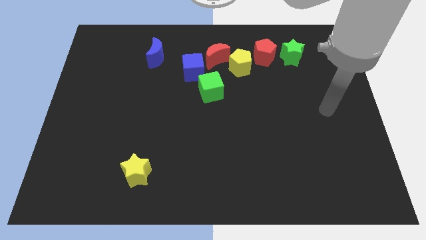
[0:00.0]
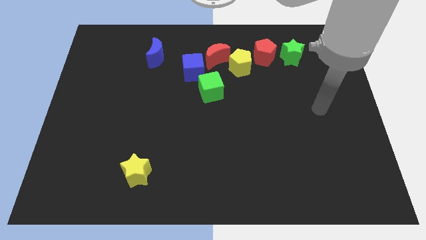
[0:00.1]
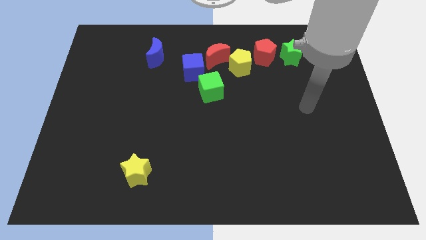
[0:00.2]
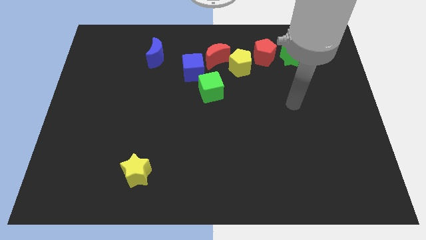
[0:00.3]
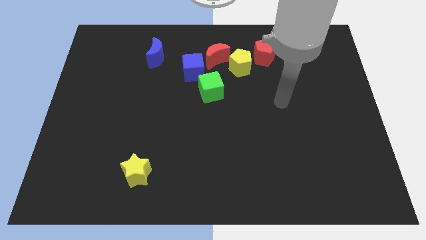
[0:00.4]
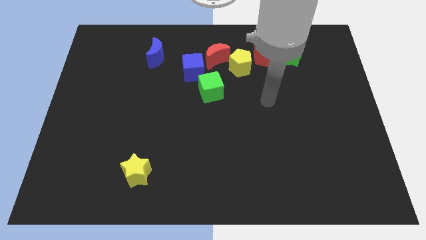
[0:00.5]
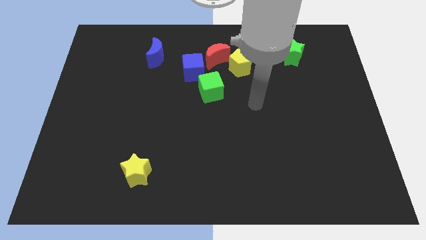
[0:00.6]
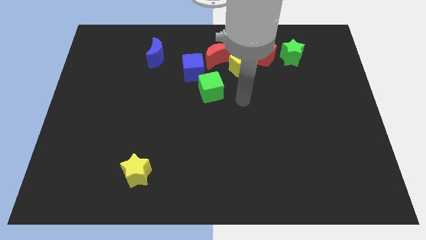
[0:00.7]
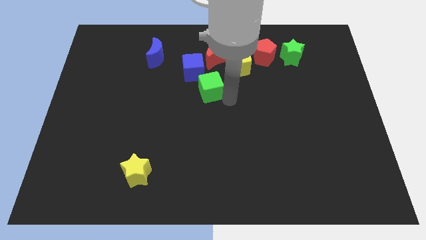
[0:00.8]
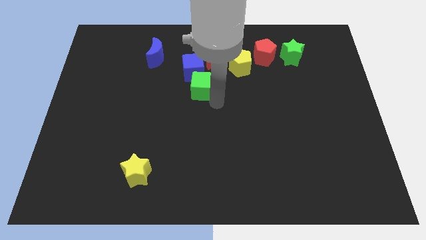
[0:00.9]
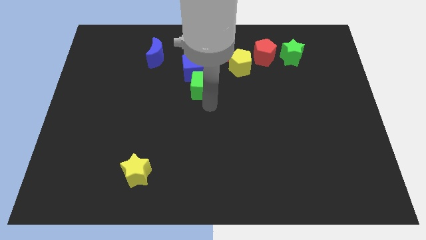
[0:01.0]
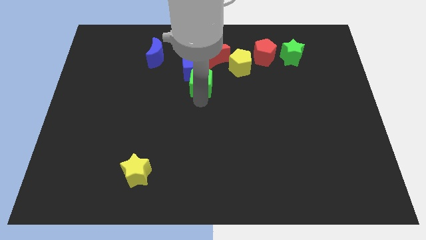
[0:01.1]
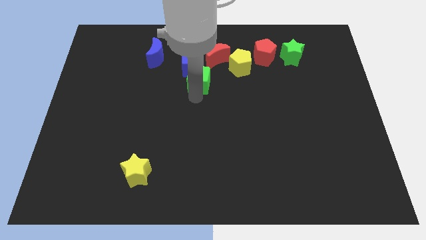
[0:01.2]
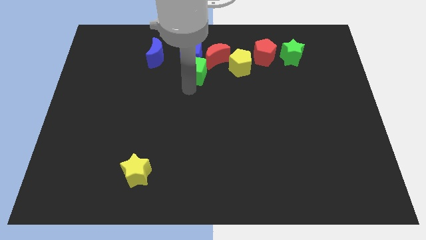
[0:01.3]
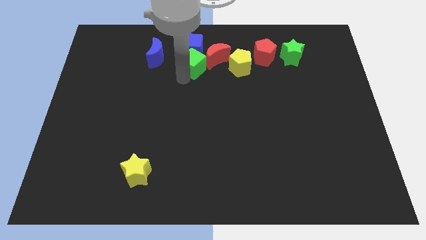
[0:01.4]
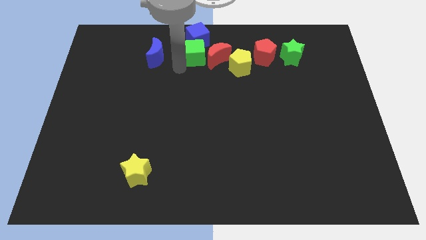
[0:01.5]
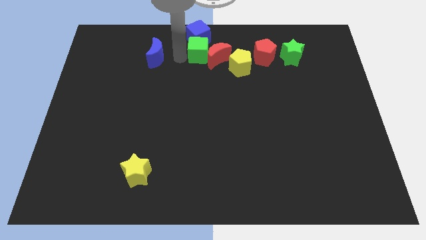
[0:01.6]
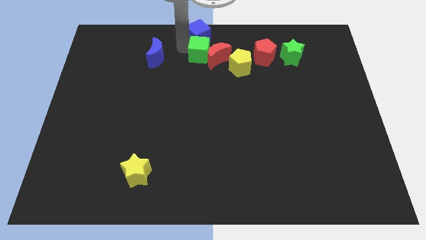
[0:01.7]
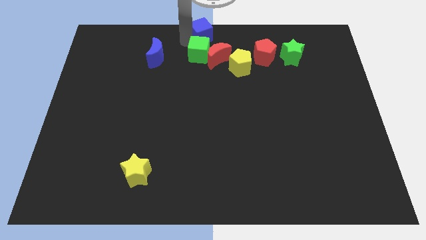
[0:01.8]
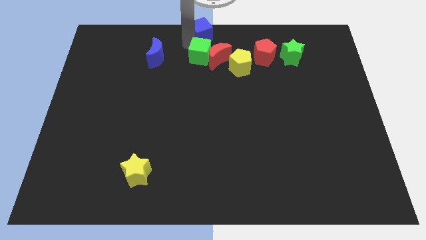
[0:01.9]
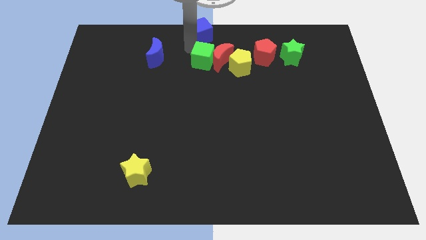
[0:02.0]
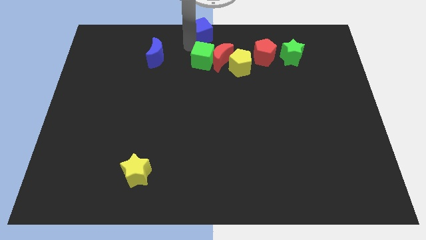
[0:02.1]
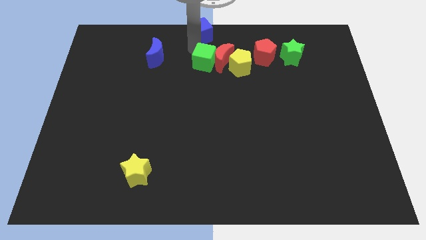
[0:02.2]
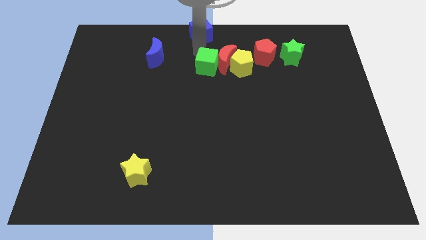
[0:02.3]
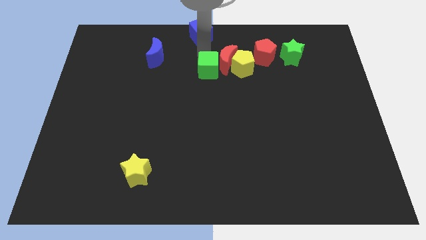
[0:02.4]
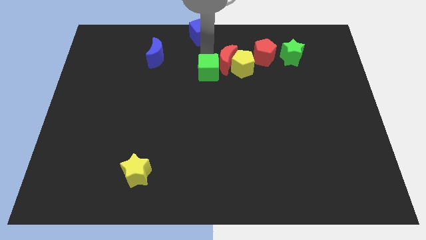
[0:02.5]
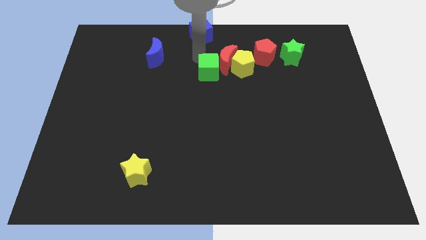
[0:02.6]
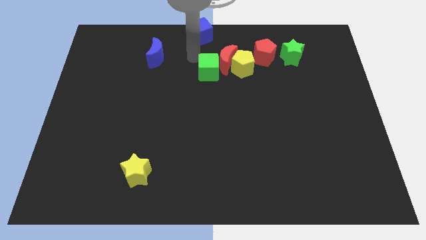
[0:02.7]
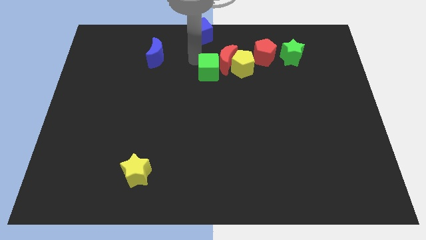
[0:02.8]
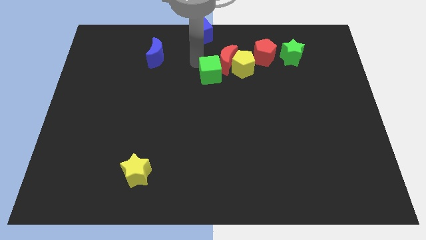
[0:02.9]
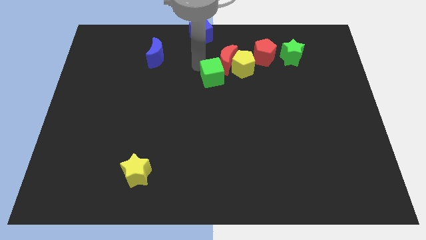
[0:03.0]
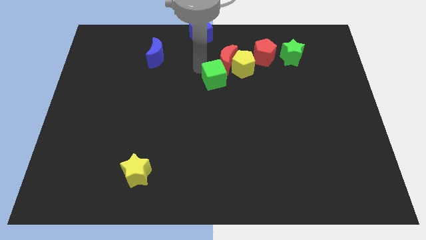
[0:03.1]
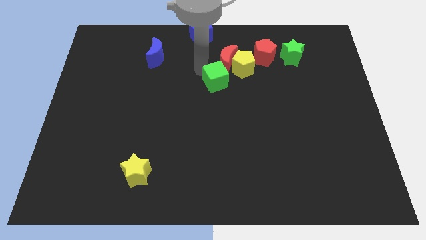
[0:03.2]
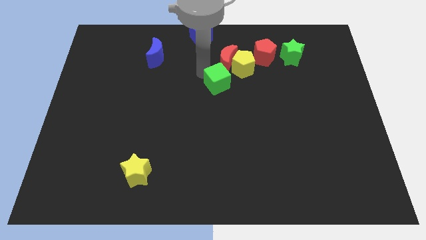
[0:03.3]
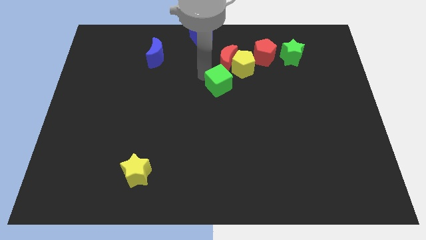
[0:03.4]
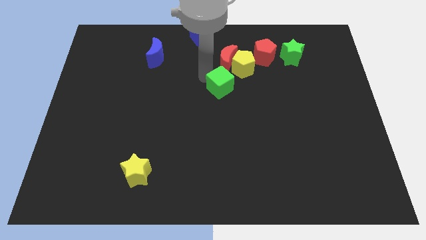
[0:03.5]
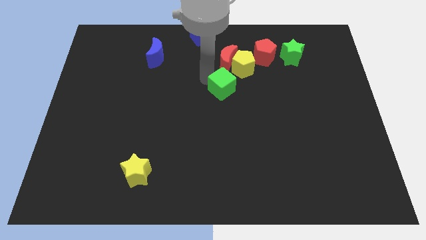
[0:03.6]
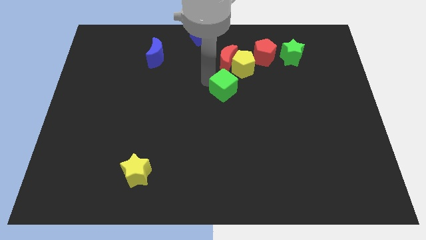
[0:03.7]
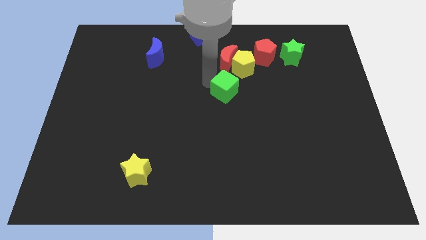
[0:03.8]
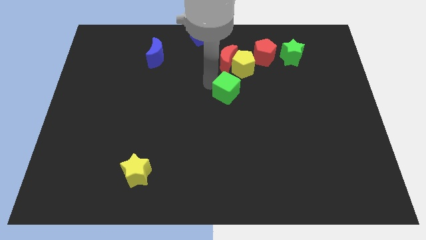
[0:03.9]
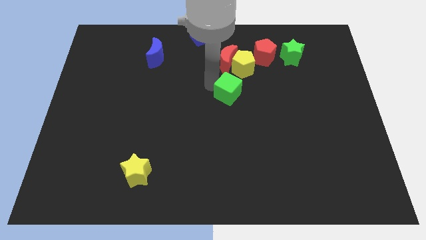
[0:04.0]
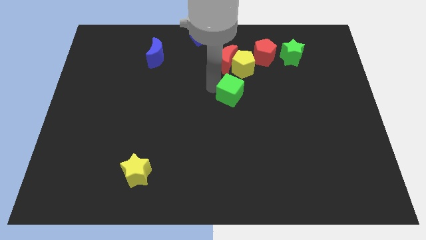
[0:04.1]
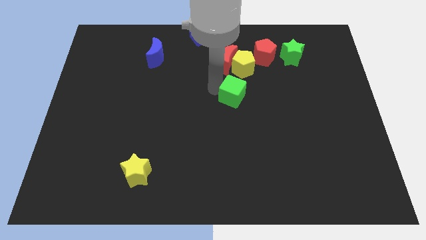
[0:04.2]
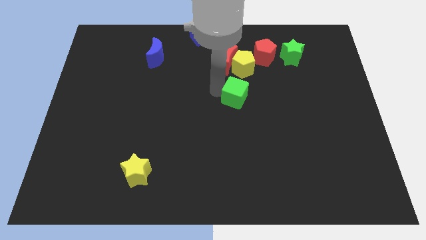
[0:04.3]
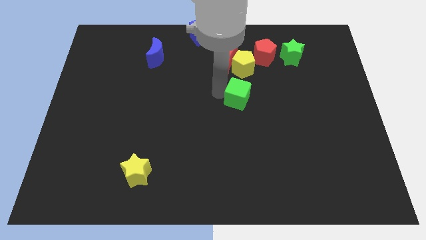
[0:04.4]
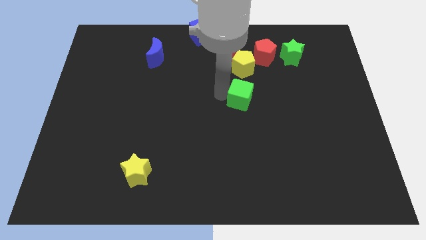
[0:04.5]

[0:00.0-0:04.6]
slightly move the green cube to the right

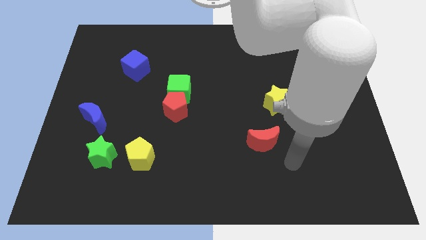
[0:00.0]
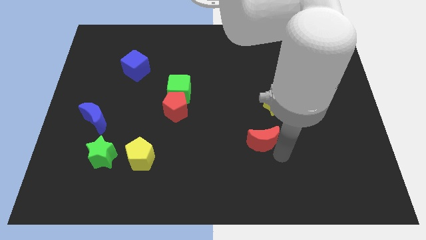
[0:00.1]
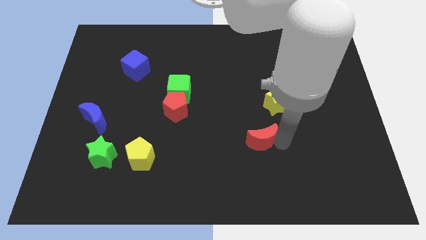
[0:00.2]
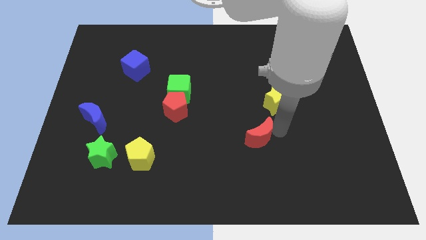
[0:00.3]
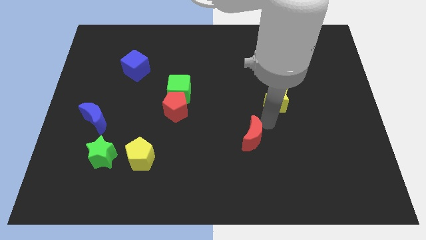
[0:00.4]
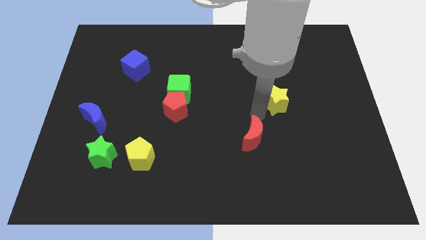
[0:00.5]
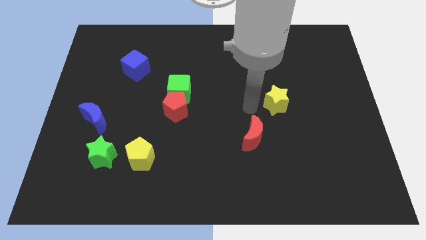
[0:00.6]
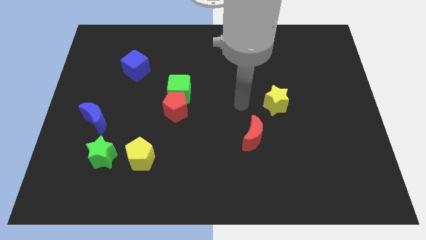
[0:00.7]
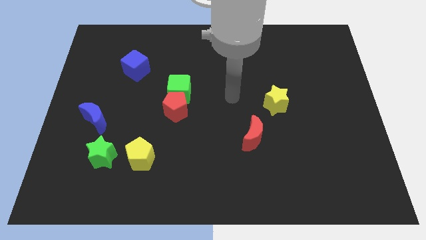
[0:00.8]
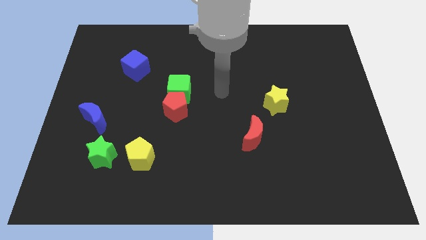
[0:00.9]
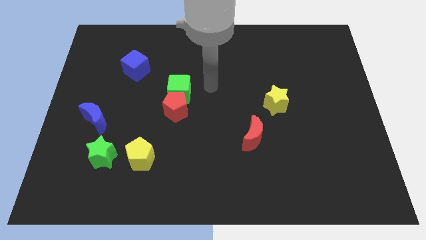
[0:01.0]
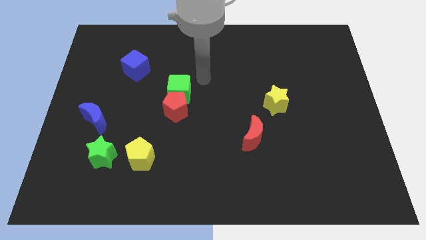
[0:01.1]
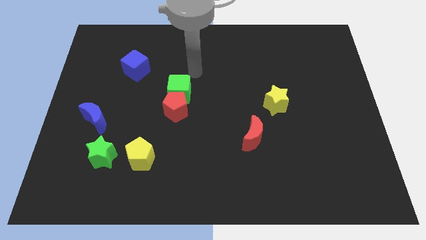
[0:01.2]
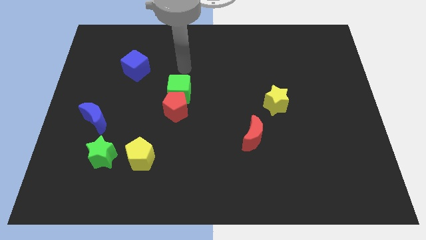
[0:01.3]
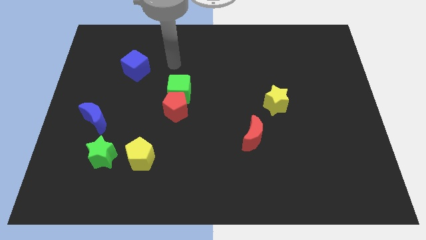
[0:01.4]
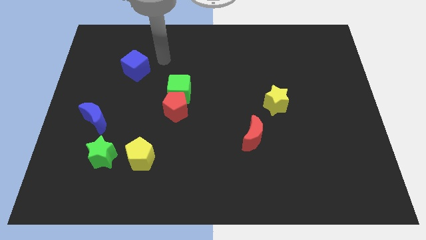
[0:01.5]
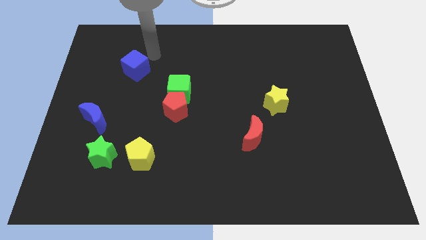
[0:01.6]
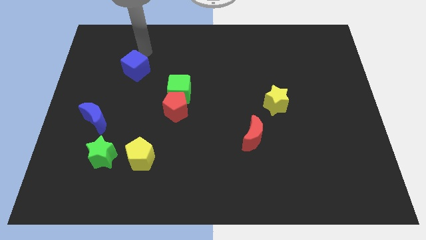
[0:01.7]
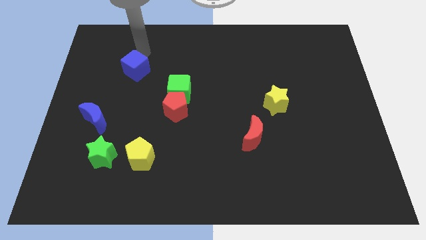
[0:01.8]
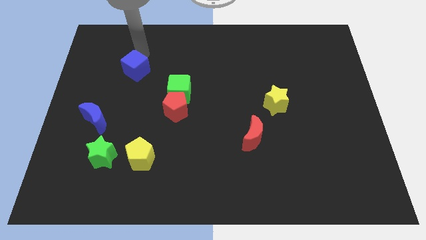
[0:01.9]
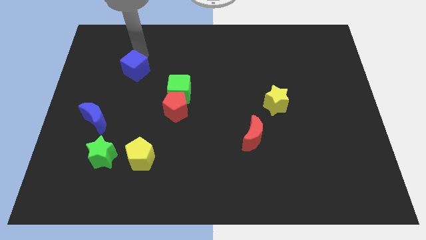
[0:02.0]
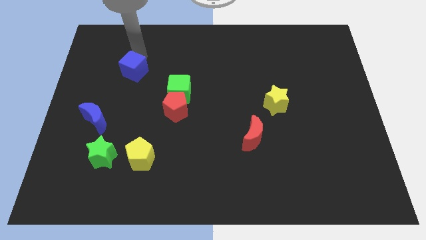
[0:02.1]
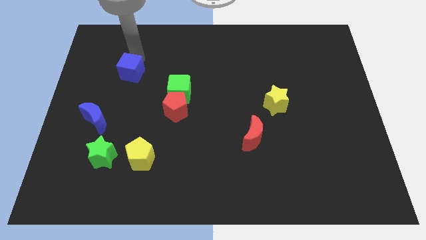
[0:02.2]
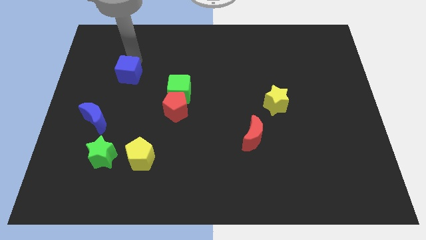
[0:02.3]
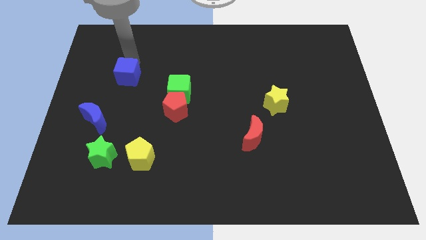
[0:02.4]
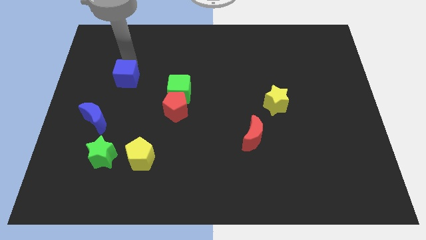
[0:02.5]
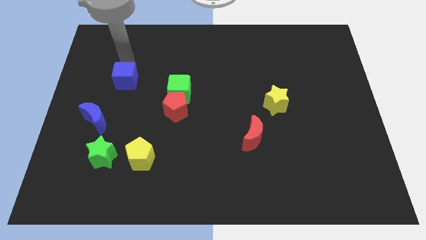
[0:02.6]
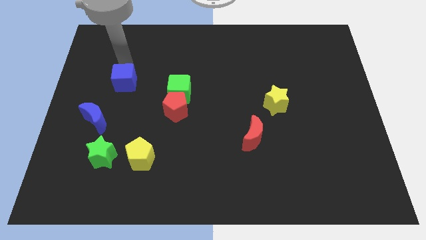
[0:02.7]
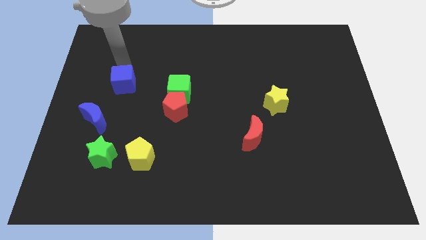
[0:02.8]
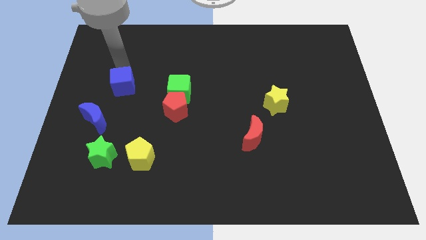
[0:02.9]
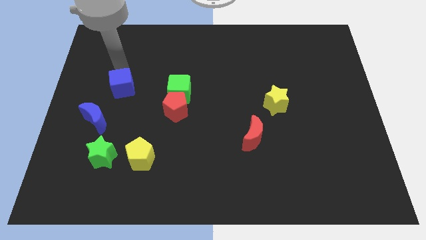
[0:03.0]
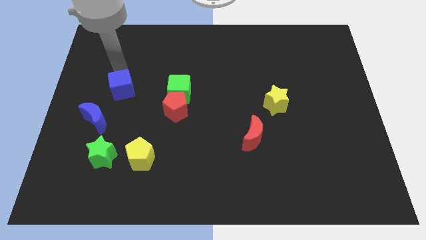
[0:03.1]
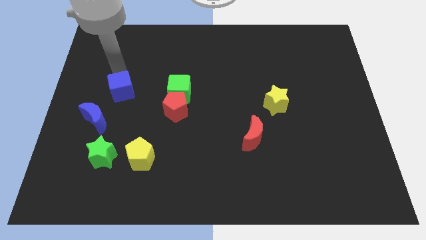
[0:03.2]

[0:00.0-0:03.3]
slightly move the blue cube down
